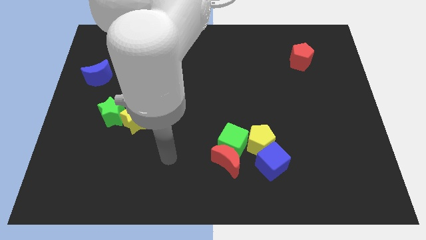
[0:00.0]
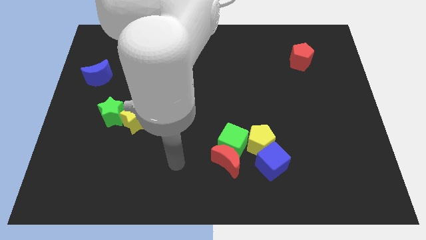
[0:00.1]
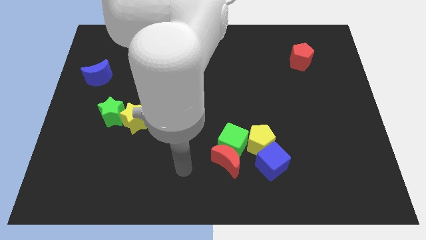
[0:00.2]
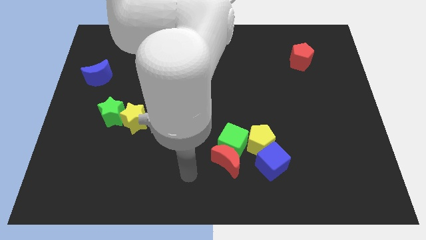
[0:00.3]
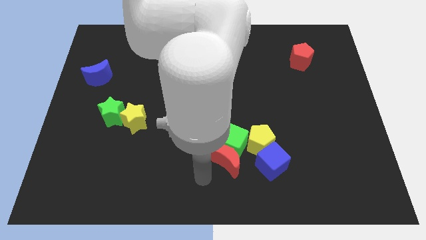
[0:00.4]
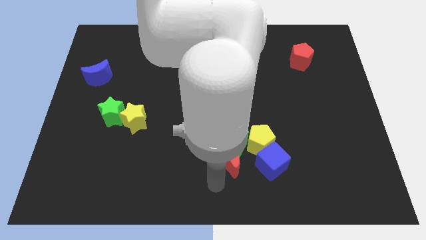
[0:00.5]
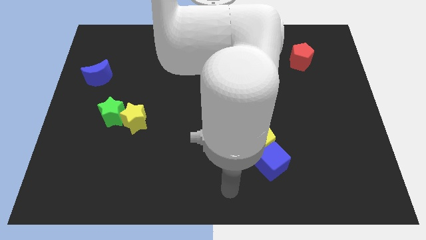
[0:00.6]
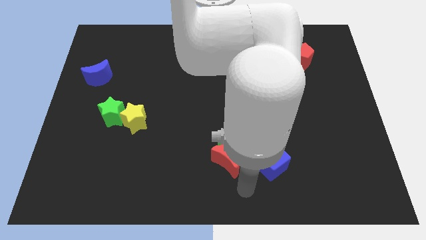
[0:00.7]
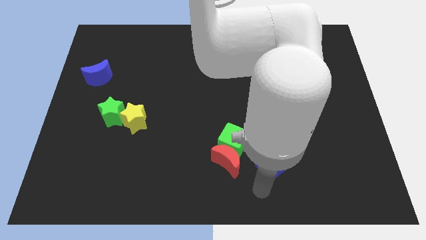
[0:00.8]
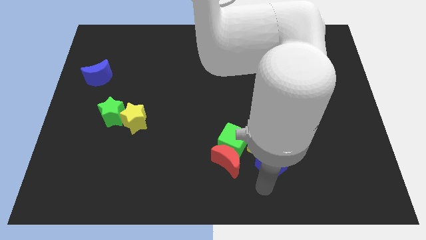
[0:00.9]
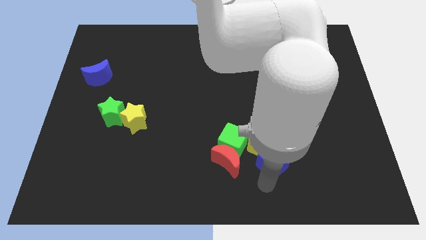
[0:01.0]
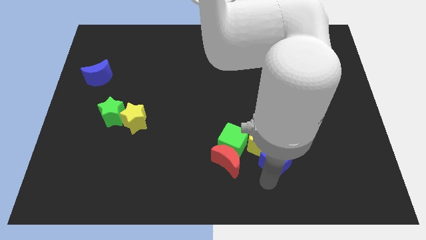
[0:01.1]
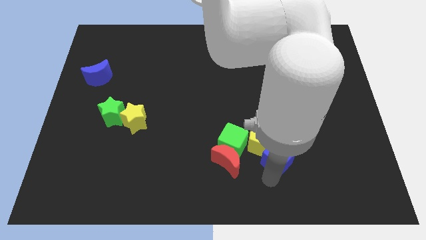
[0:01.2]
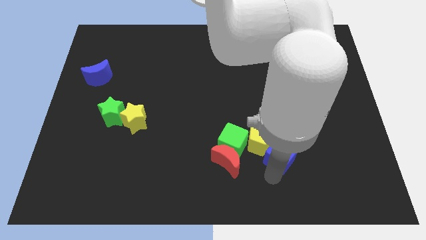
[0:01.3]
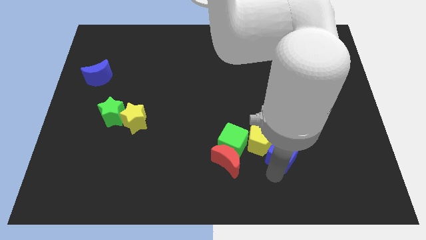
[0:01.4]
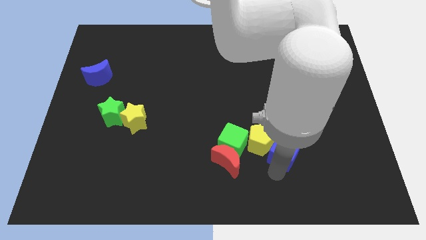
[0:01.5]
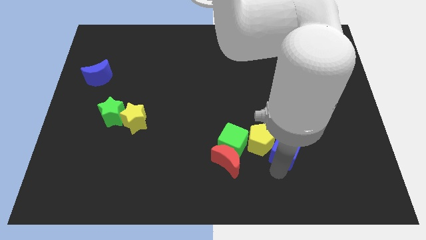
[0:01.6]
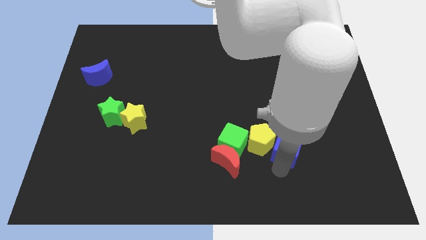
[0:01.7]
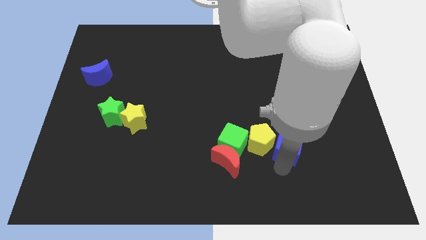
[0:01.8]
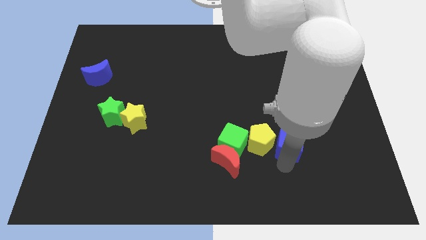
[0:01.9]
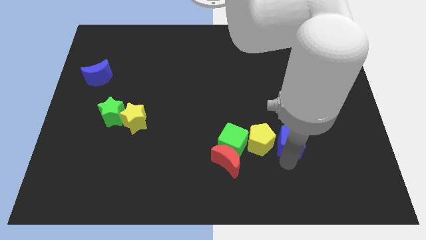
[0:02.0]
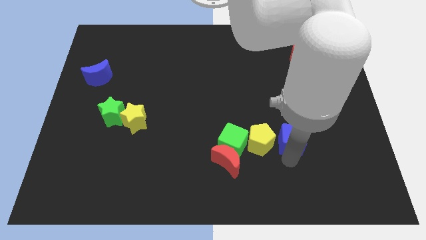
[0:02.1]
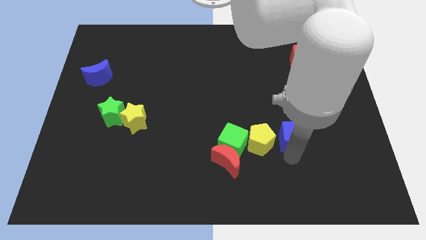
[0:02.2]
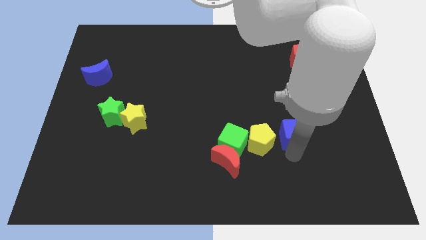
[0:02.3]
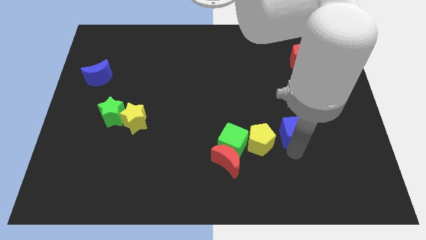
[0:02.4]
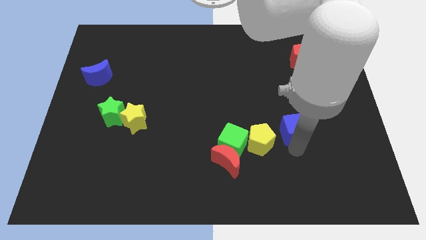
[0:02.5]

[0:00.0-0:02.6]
move the blue cube up somewhat

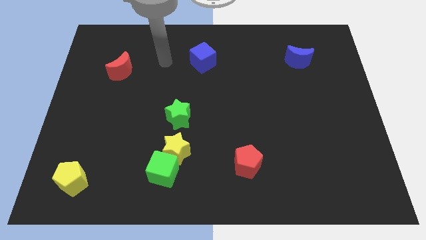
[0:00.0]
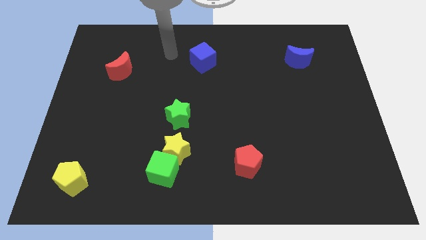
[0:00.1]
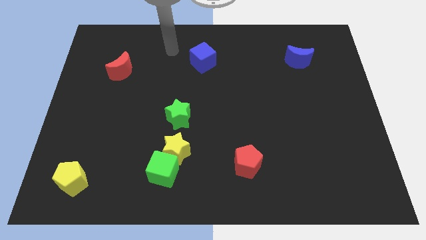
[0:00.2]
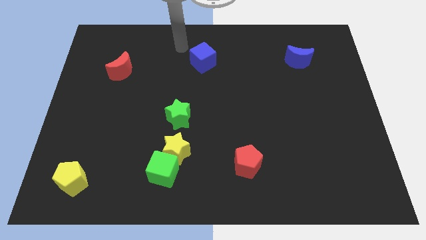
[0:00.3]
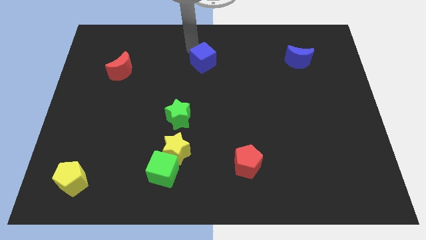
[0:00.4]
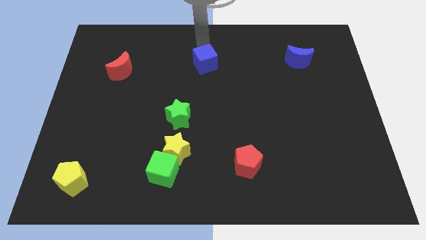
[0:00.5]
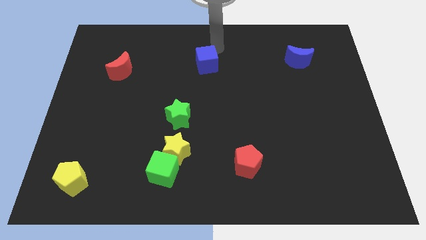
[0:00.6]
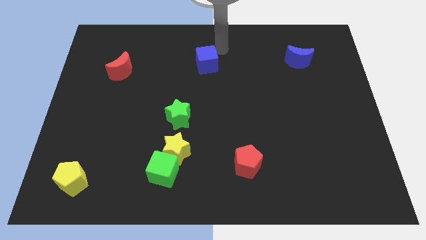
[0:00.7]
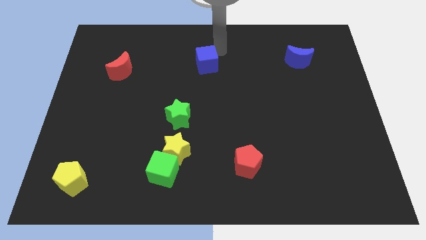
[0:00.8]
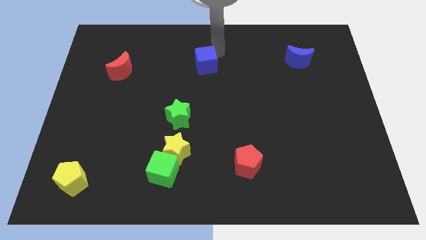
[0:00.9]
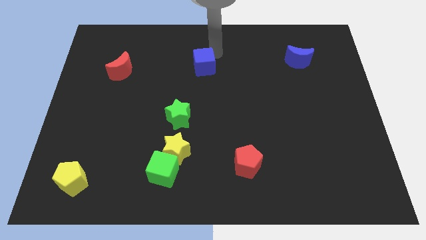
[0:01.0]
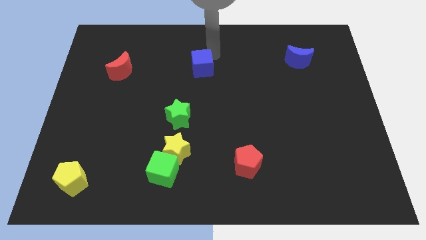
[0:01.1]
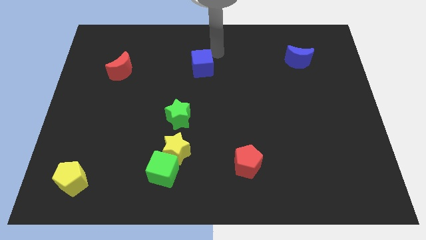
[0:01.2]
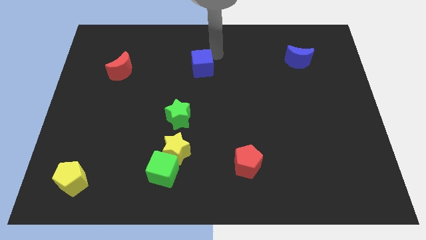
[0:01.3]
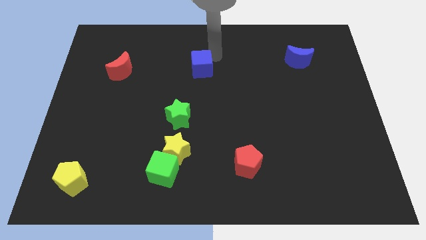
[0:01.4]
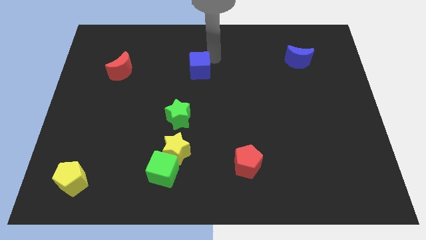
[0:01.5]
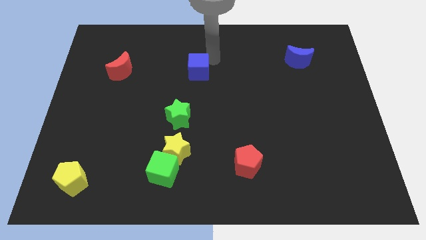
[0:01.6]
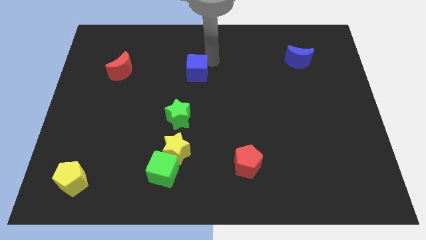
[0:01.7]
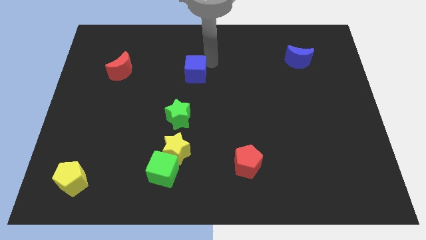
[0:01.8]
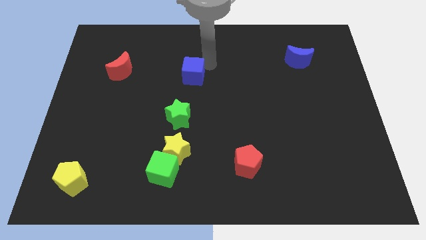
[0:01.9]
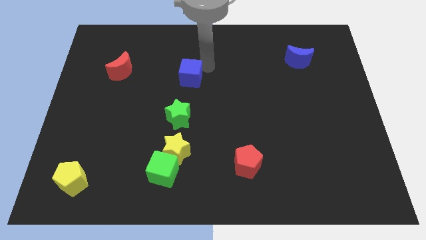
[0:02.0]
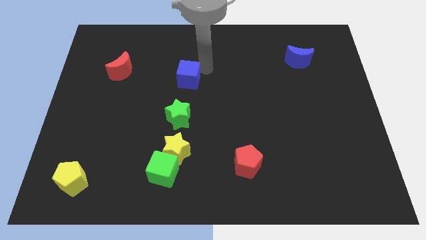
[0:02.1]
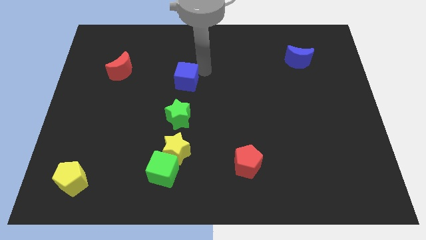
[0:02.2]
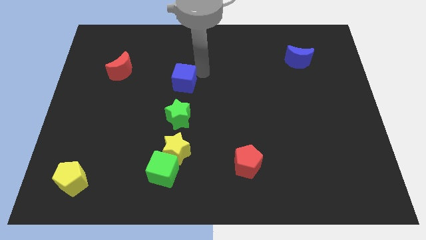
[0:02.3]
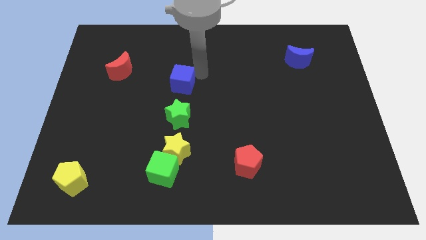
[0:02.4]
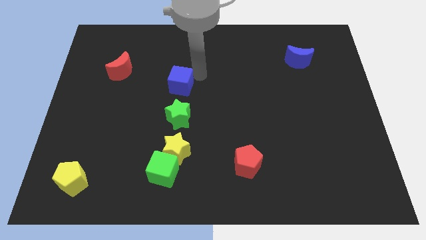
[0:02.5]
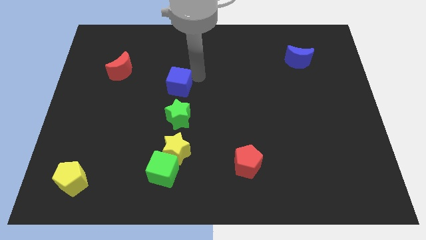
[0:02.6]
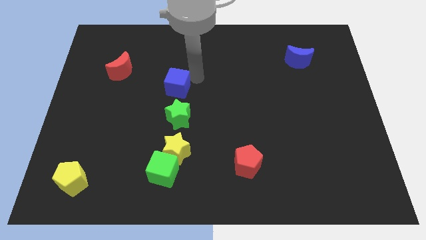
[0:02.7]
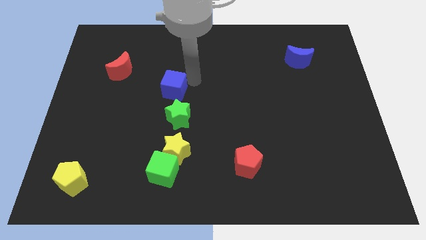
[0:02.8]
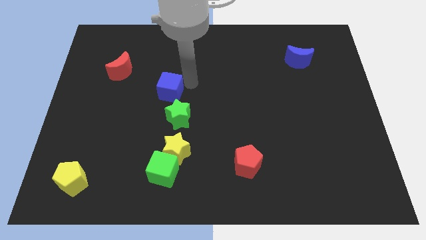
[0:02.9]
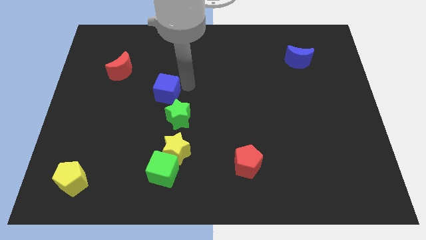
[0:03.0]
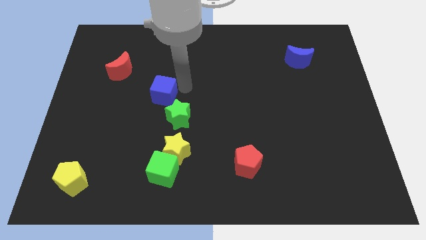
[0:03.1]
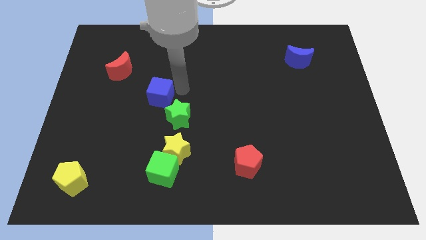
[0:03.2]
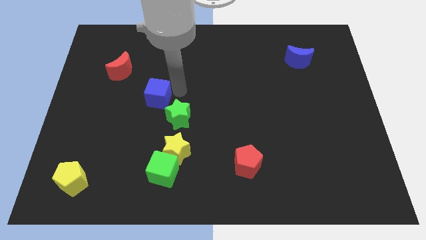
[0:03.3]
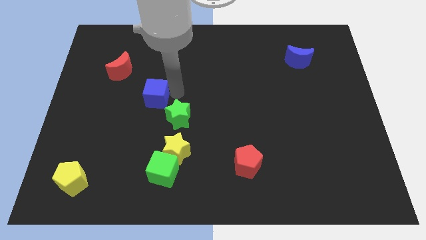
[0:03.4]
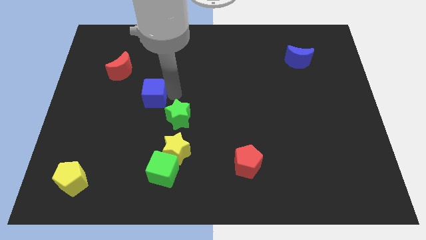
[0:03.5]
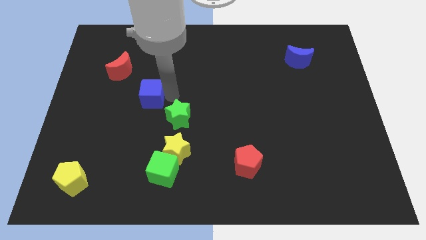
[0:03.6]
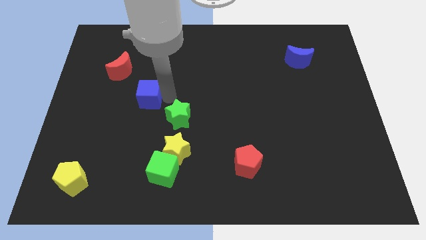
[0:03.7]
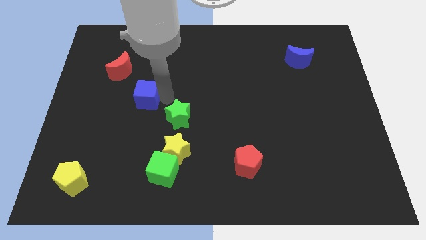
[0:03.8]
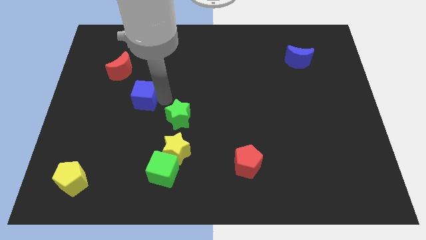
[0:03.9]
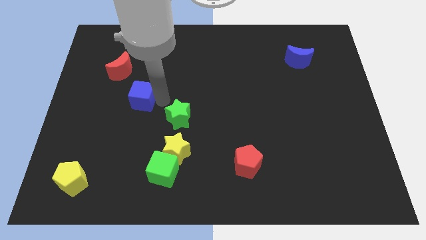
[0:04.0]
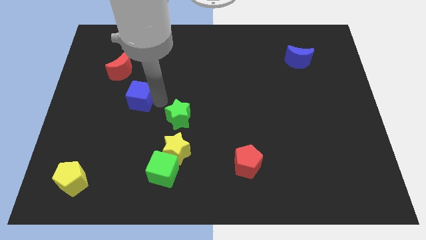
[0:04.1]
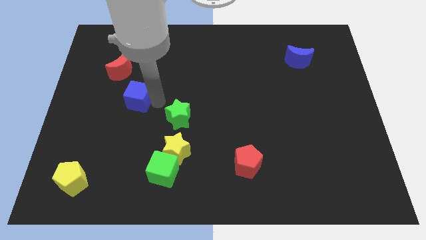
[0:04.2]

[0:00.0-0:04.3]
move the blue cube downwards and to the left diagonally

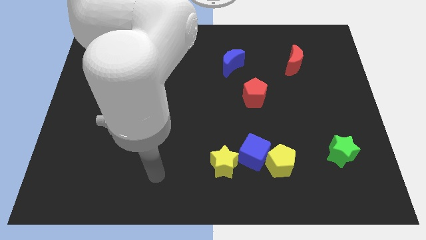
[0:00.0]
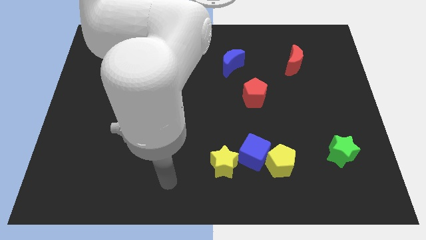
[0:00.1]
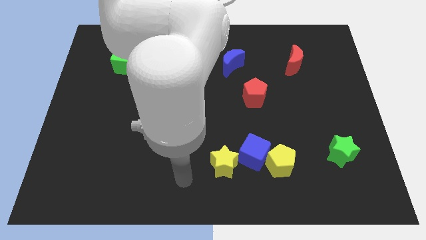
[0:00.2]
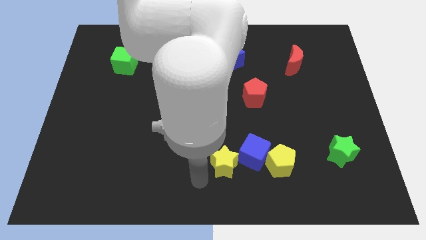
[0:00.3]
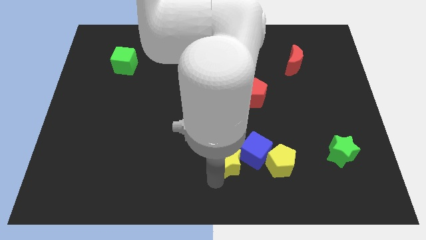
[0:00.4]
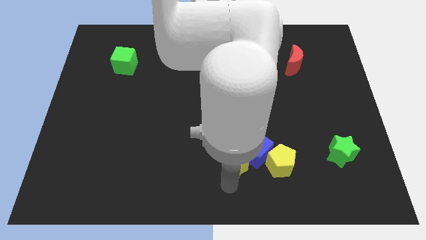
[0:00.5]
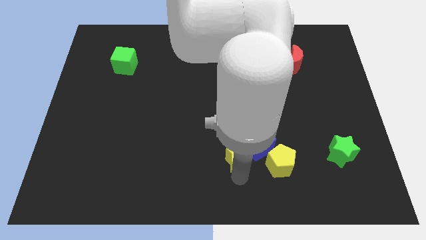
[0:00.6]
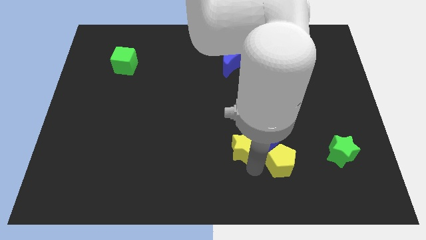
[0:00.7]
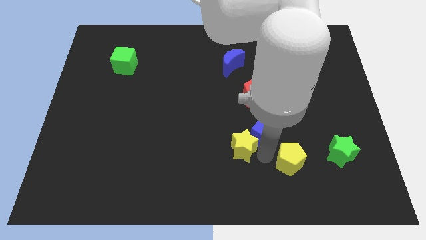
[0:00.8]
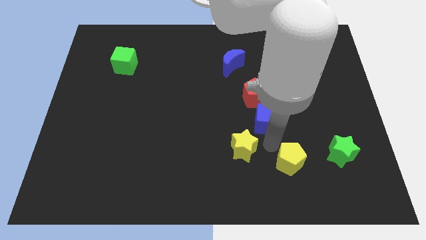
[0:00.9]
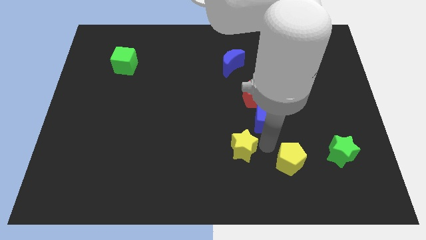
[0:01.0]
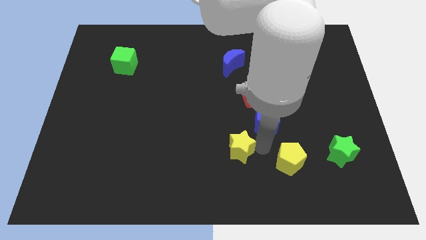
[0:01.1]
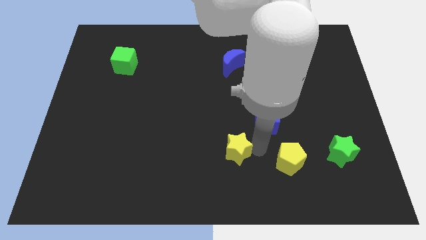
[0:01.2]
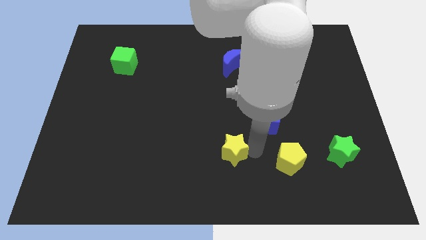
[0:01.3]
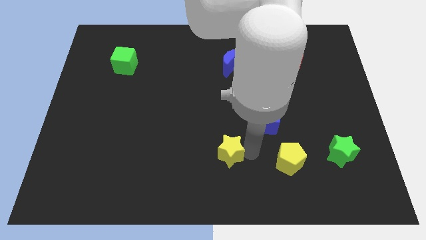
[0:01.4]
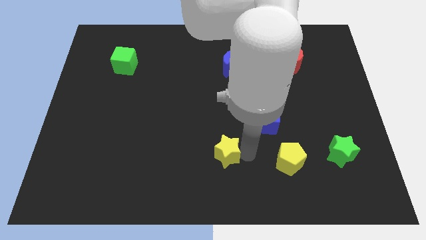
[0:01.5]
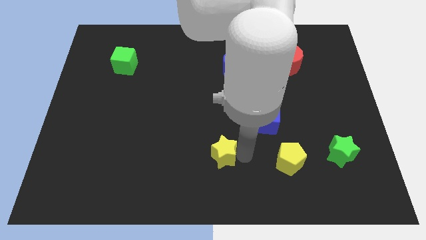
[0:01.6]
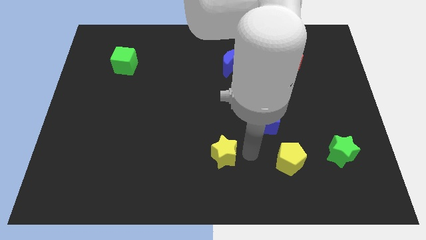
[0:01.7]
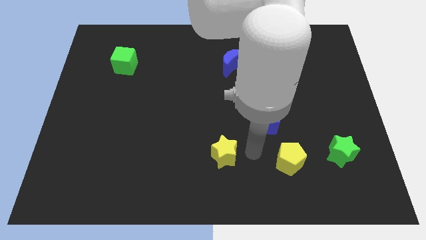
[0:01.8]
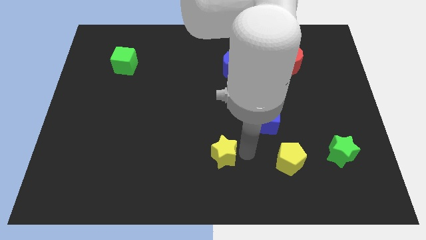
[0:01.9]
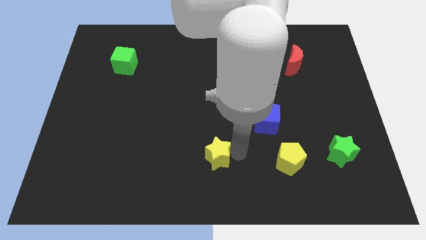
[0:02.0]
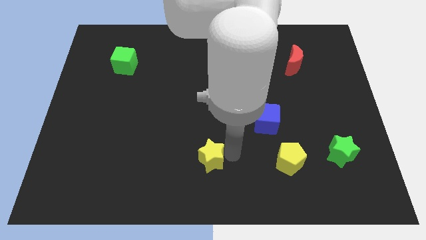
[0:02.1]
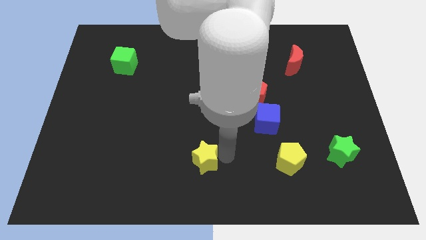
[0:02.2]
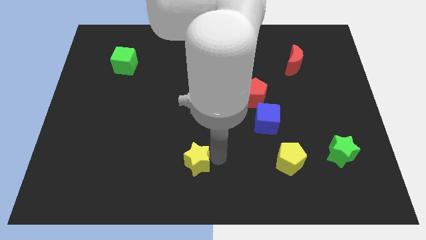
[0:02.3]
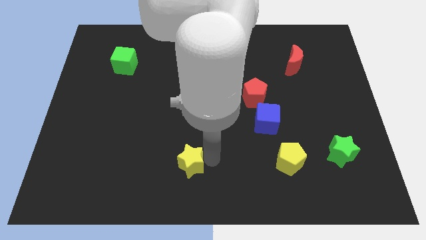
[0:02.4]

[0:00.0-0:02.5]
slide the yellow star somewhat left
